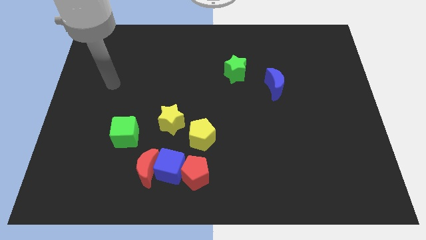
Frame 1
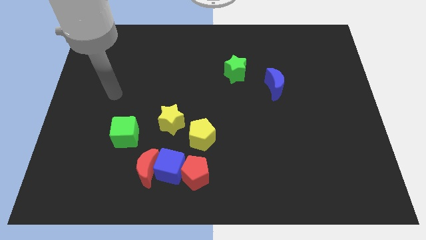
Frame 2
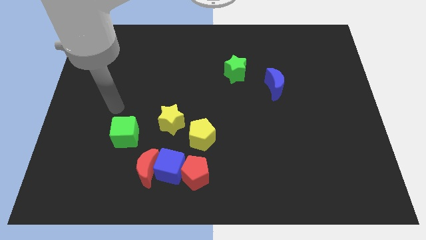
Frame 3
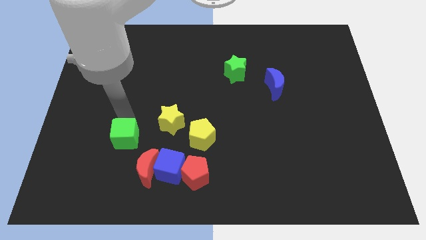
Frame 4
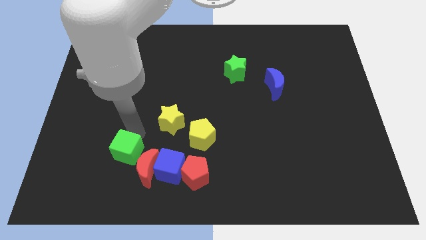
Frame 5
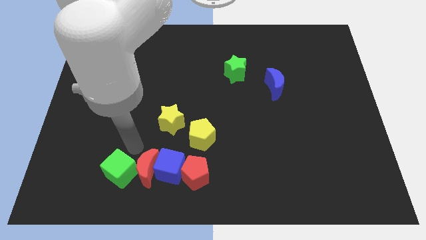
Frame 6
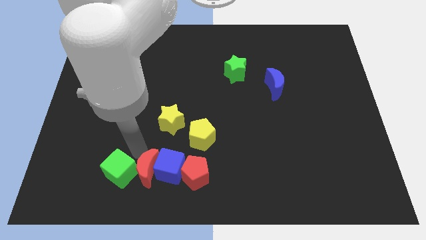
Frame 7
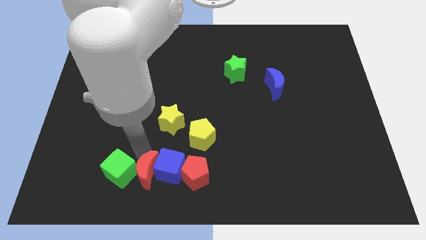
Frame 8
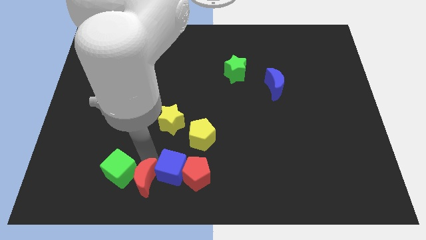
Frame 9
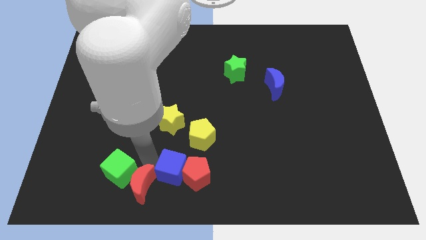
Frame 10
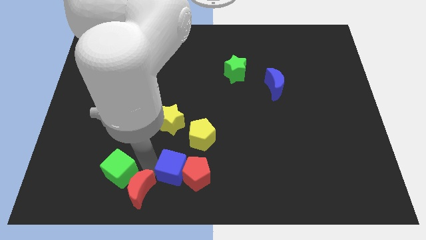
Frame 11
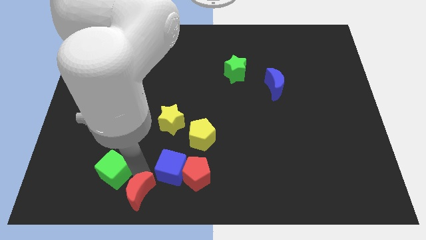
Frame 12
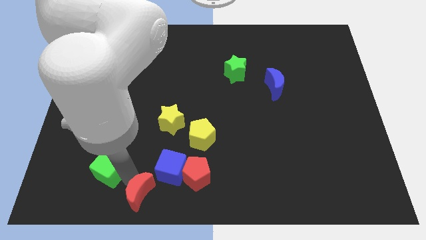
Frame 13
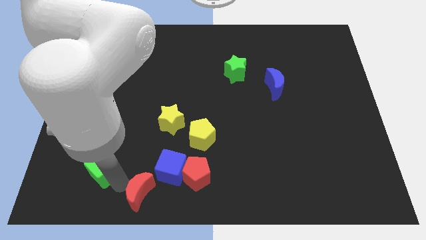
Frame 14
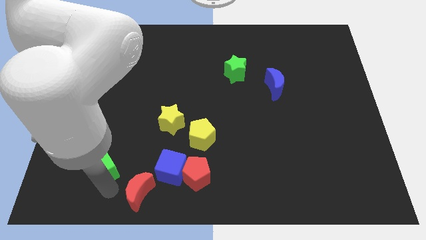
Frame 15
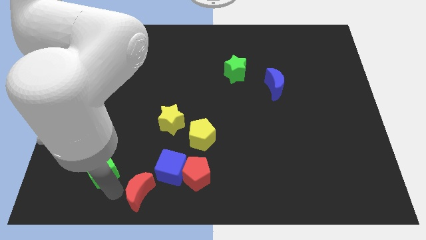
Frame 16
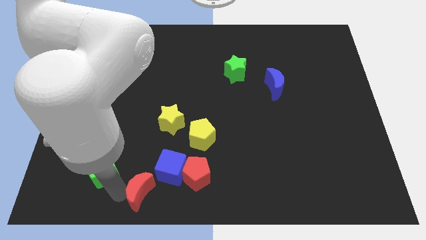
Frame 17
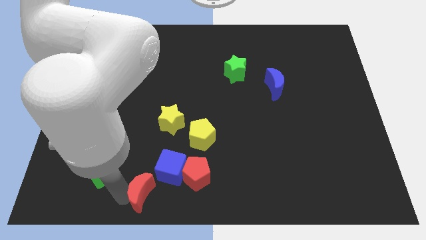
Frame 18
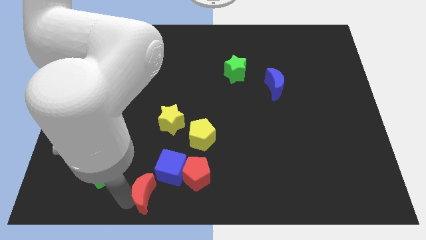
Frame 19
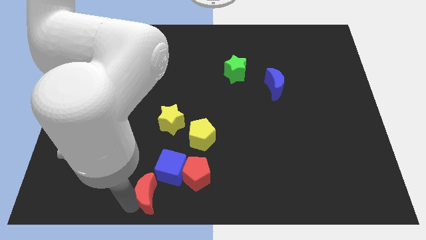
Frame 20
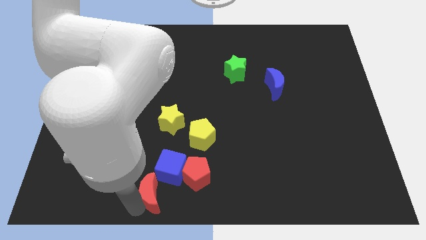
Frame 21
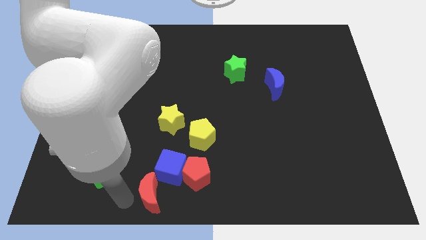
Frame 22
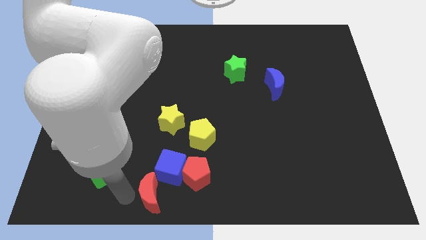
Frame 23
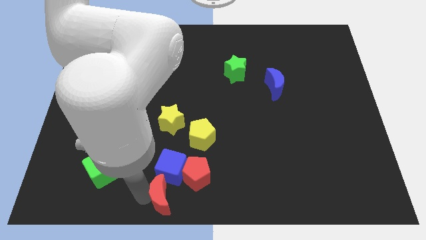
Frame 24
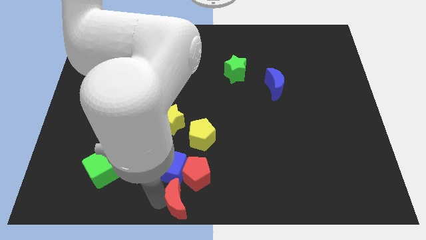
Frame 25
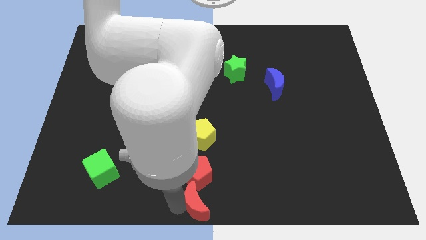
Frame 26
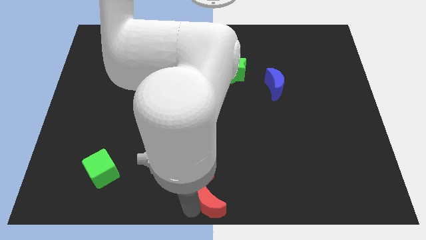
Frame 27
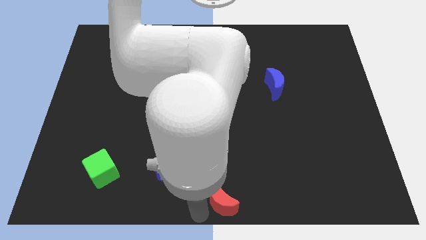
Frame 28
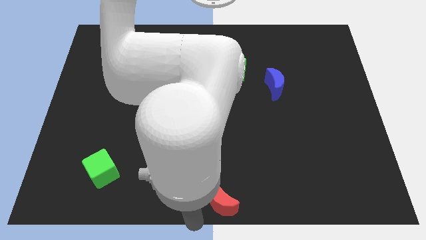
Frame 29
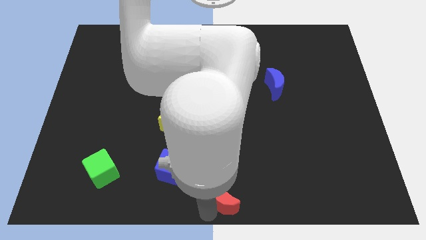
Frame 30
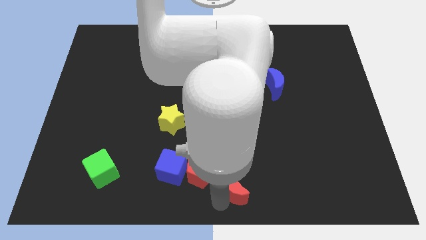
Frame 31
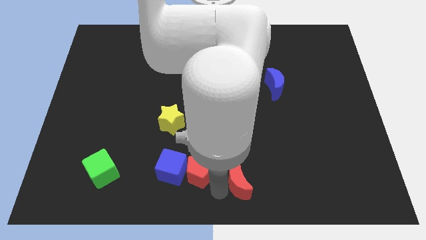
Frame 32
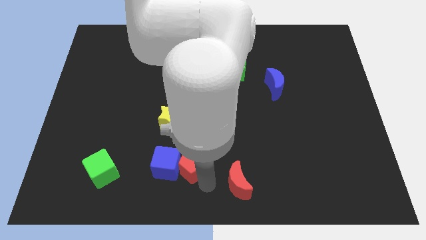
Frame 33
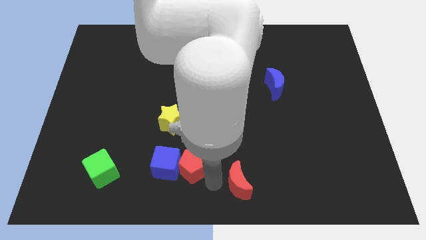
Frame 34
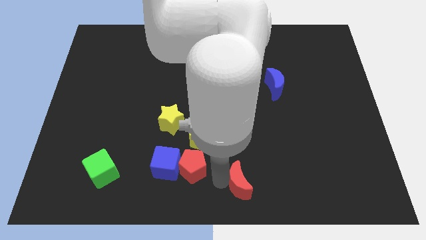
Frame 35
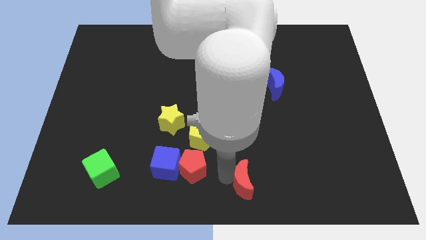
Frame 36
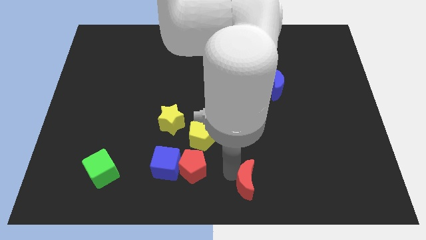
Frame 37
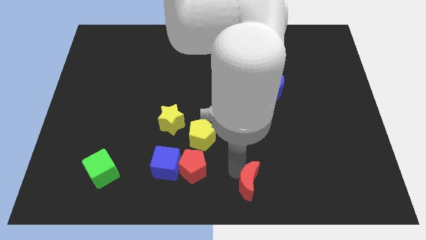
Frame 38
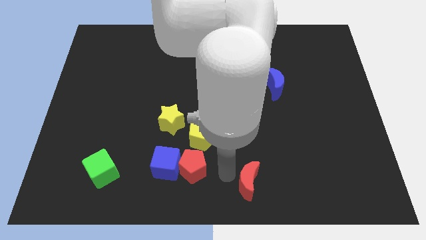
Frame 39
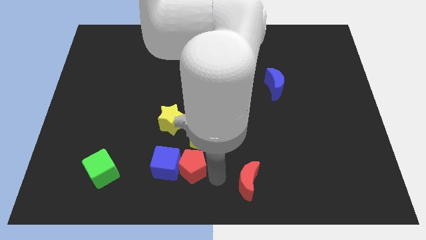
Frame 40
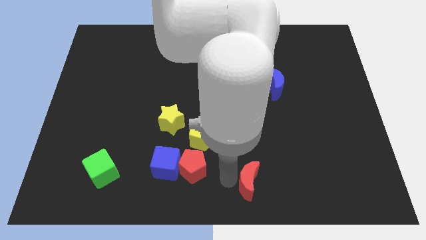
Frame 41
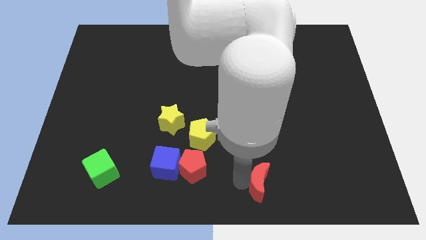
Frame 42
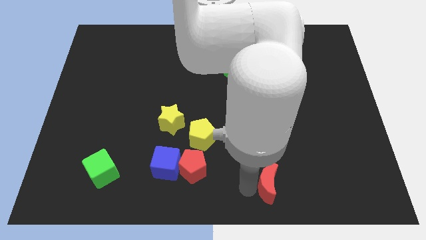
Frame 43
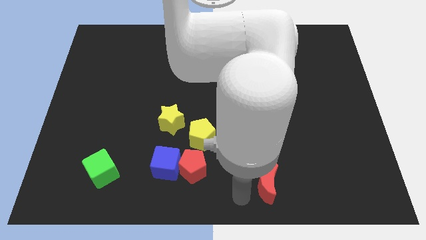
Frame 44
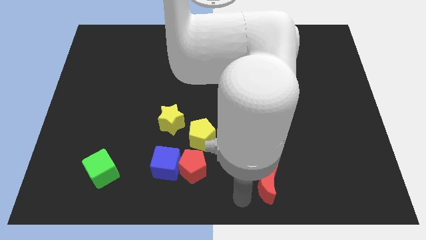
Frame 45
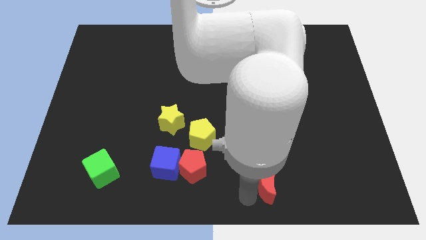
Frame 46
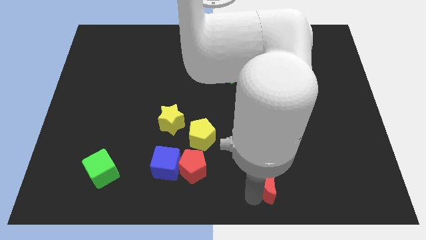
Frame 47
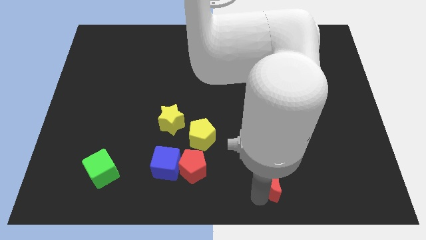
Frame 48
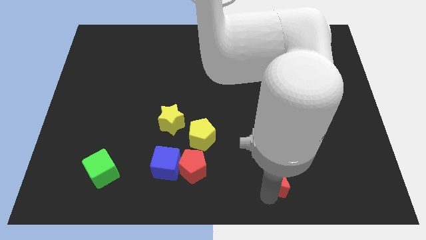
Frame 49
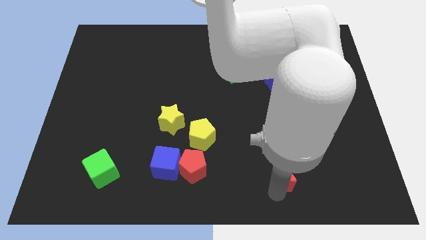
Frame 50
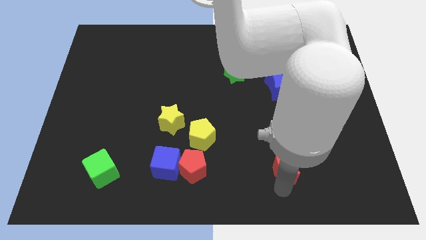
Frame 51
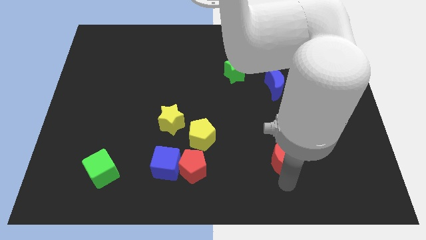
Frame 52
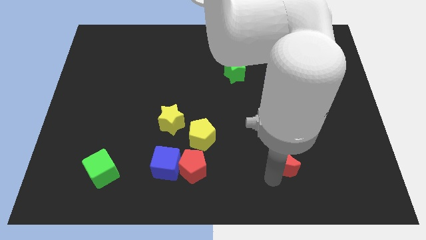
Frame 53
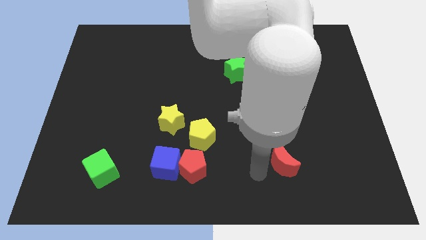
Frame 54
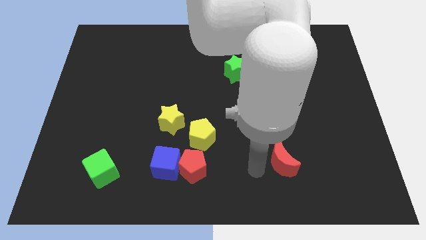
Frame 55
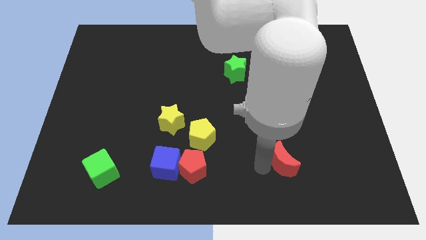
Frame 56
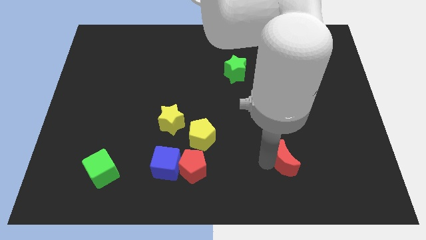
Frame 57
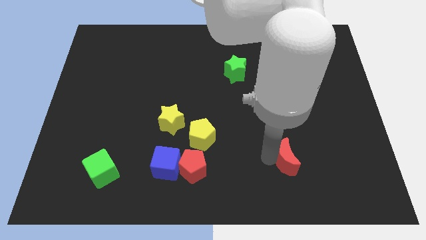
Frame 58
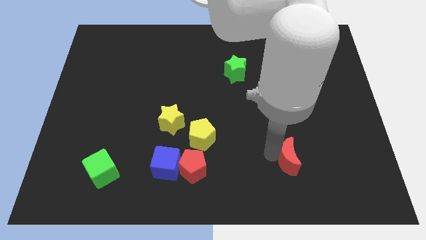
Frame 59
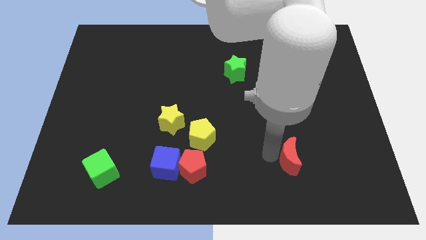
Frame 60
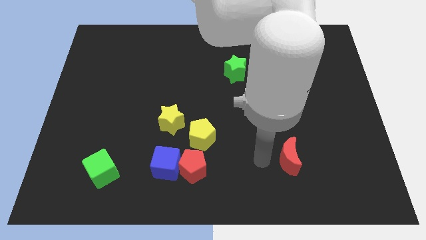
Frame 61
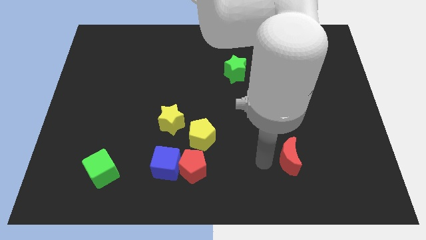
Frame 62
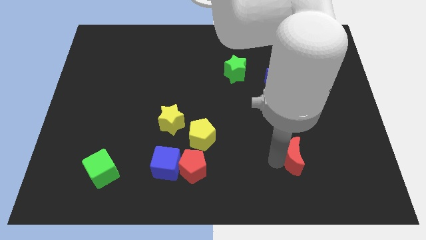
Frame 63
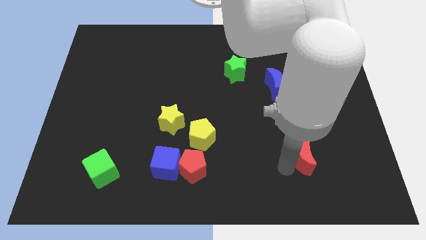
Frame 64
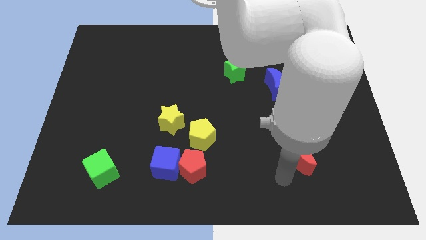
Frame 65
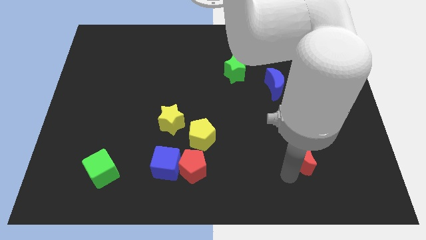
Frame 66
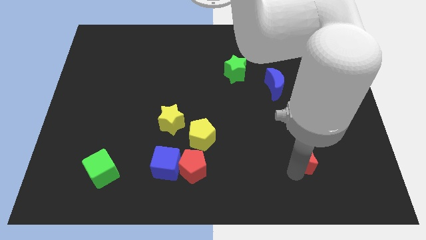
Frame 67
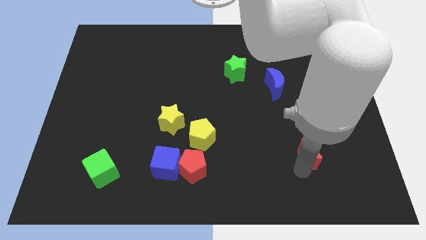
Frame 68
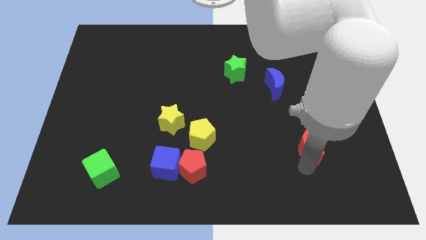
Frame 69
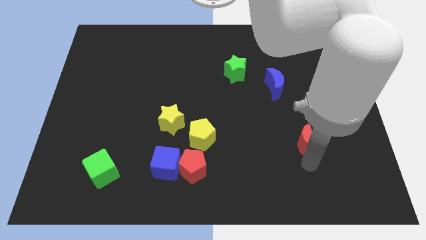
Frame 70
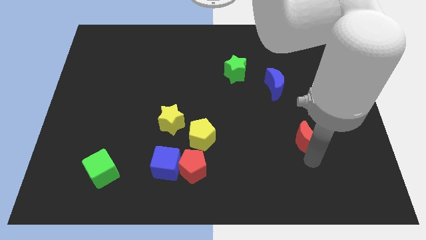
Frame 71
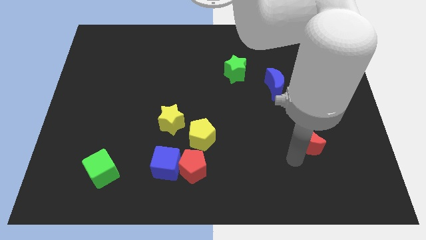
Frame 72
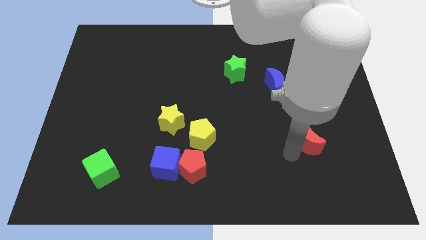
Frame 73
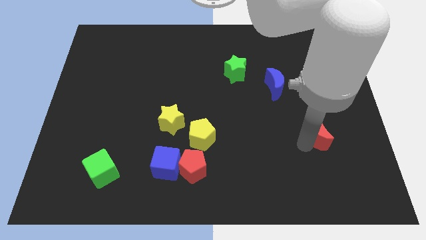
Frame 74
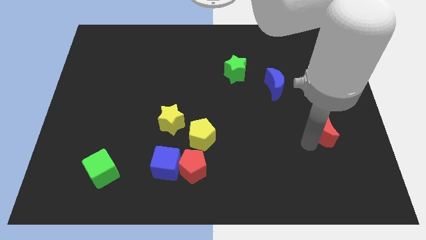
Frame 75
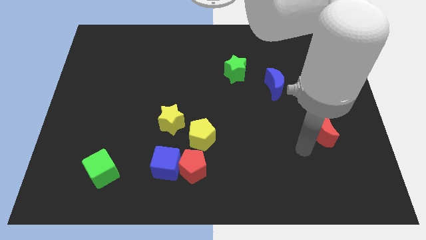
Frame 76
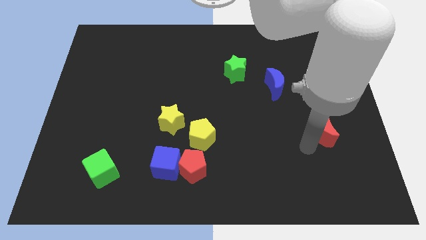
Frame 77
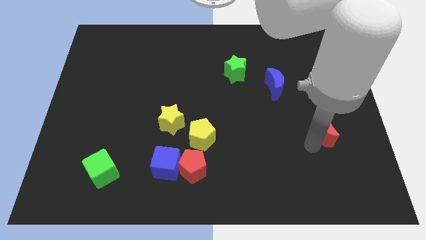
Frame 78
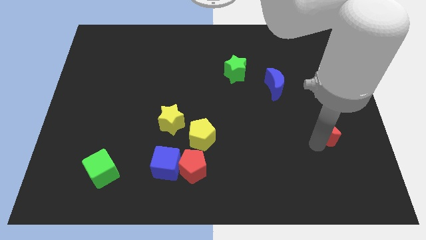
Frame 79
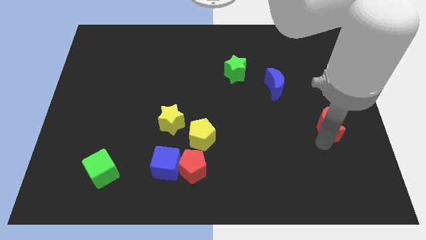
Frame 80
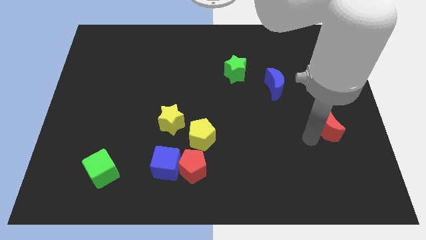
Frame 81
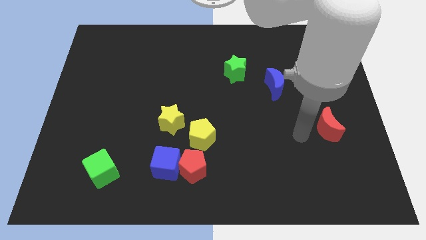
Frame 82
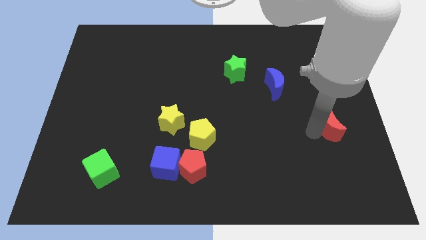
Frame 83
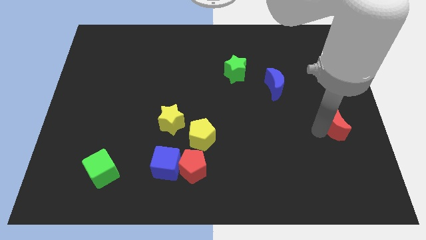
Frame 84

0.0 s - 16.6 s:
slide the red moon to the center right
